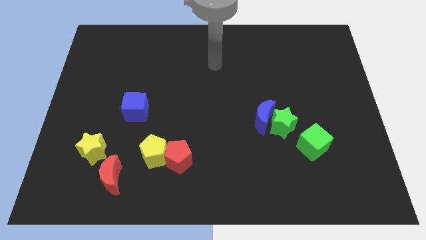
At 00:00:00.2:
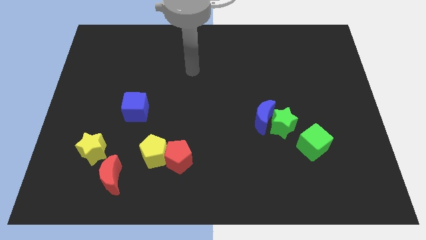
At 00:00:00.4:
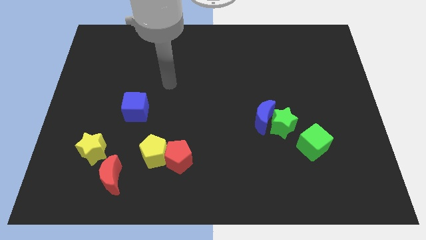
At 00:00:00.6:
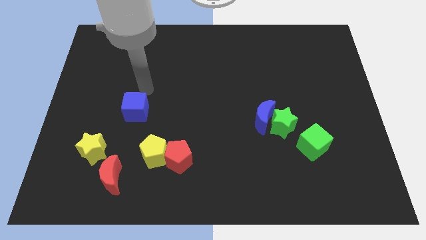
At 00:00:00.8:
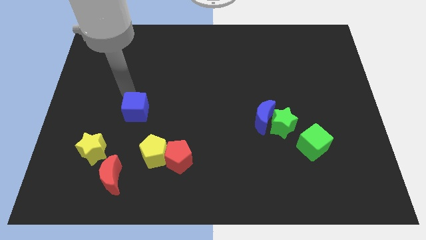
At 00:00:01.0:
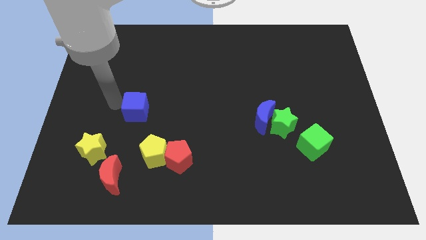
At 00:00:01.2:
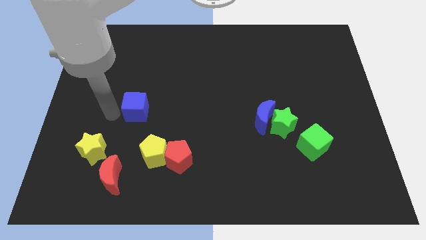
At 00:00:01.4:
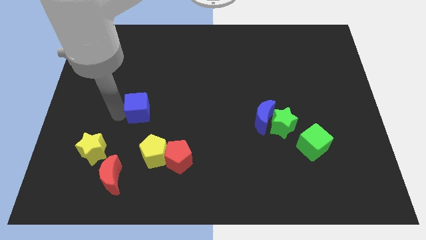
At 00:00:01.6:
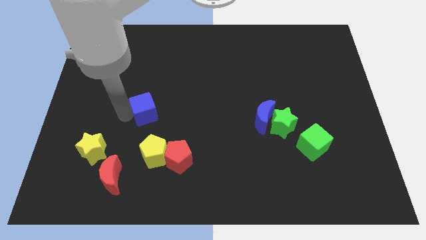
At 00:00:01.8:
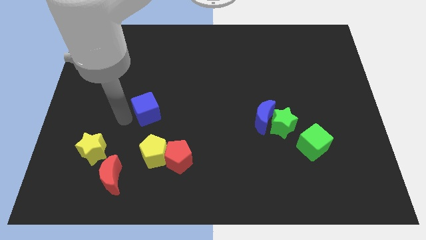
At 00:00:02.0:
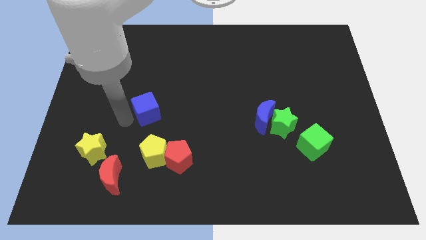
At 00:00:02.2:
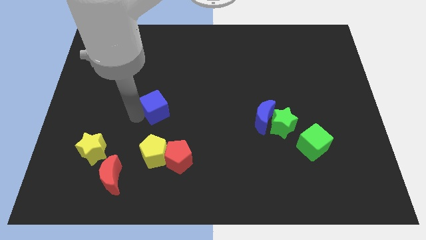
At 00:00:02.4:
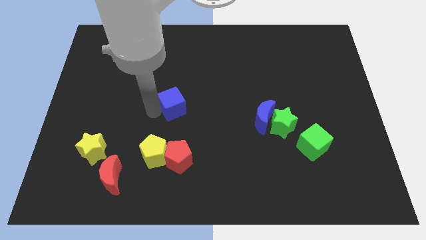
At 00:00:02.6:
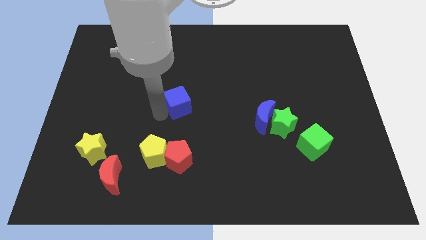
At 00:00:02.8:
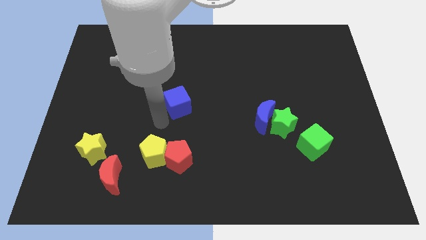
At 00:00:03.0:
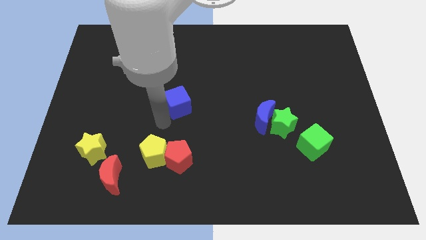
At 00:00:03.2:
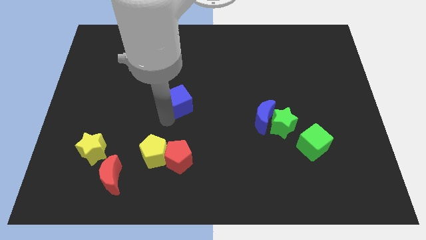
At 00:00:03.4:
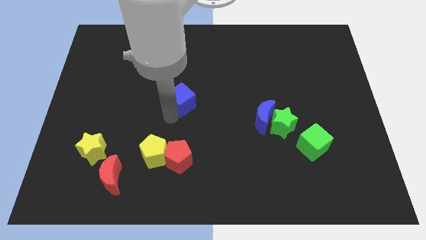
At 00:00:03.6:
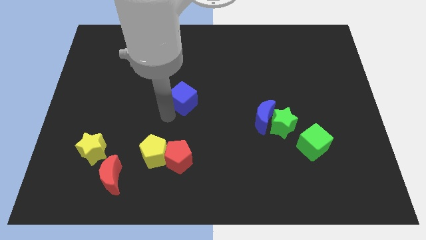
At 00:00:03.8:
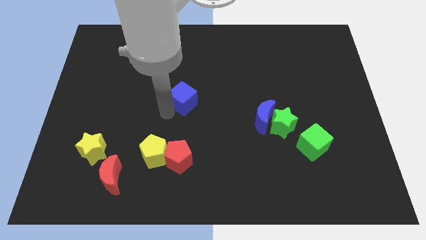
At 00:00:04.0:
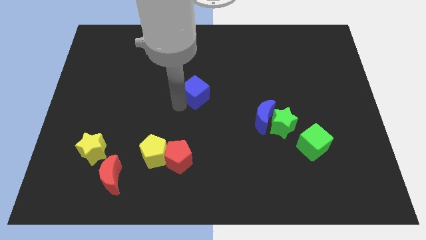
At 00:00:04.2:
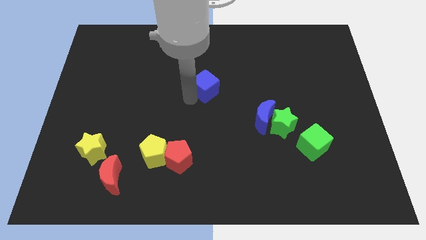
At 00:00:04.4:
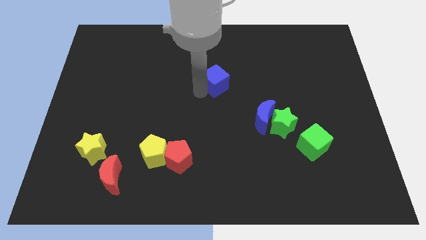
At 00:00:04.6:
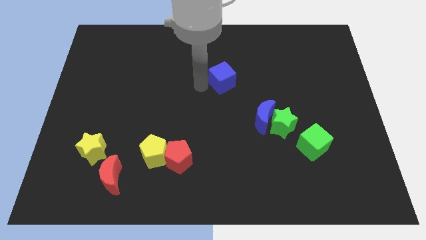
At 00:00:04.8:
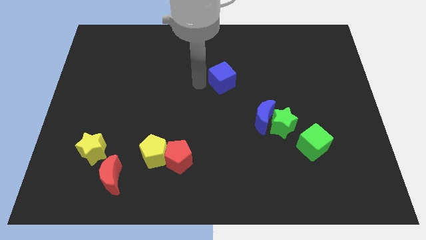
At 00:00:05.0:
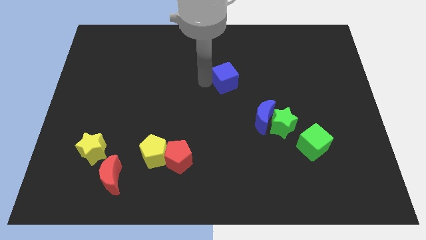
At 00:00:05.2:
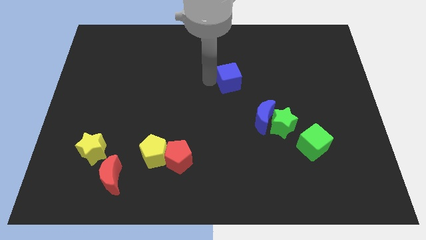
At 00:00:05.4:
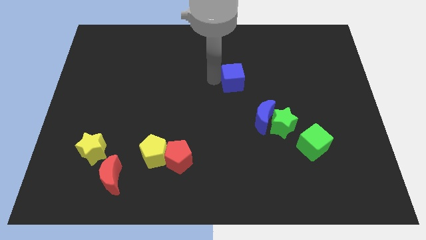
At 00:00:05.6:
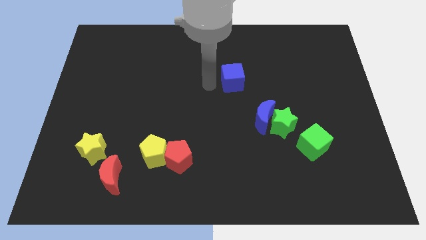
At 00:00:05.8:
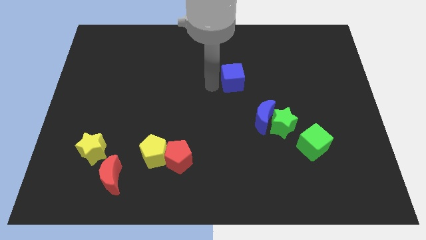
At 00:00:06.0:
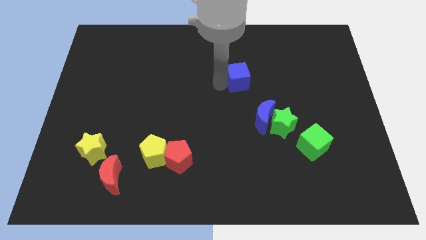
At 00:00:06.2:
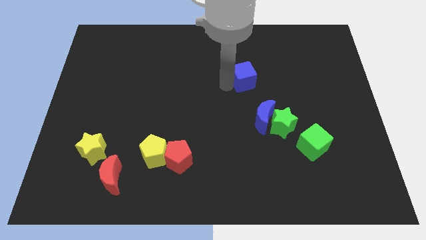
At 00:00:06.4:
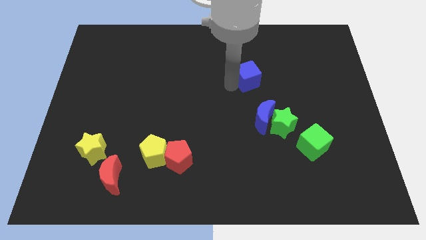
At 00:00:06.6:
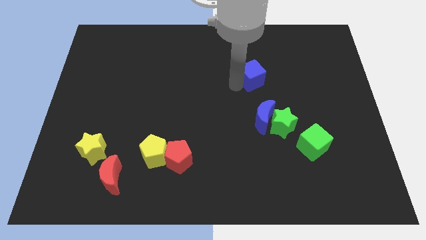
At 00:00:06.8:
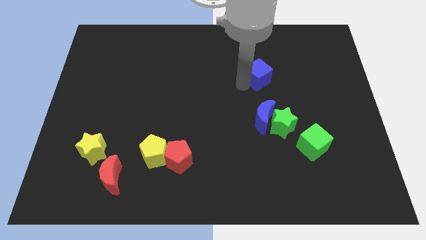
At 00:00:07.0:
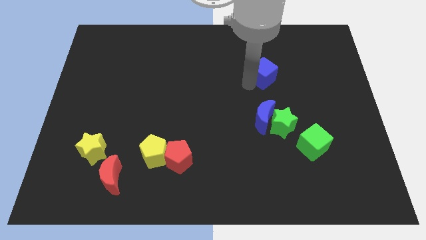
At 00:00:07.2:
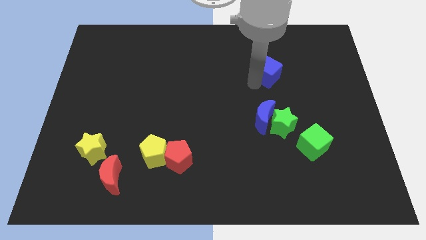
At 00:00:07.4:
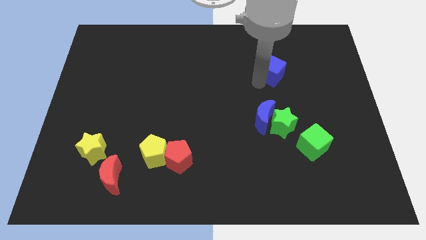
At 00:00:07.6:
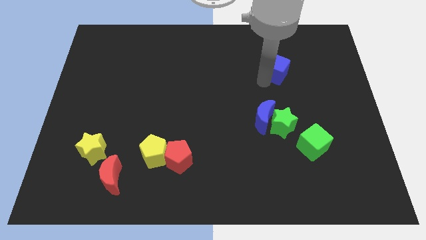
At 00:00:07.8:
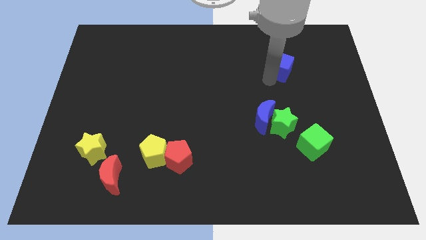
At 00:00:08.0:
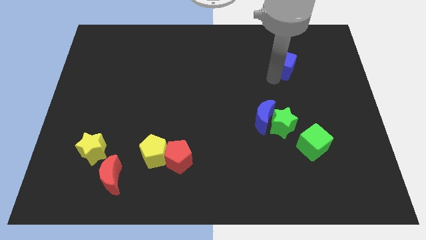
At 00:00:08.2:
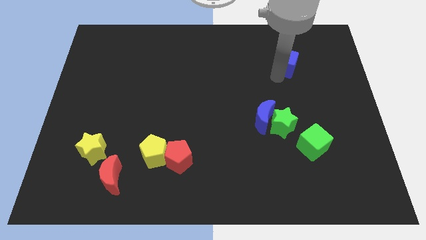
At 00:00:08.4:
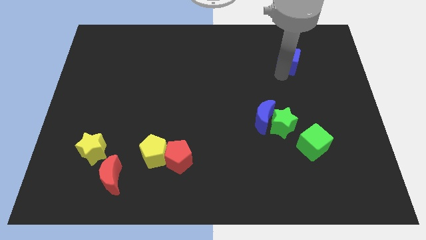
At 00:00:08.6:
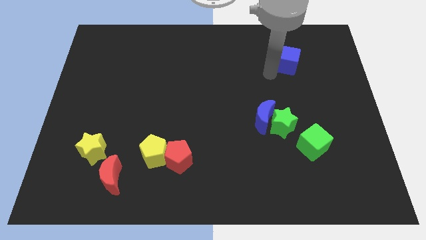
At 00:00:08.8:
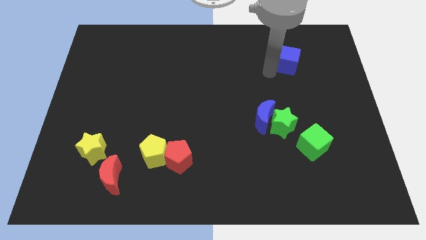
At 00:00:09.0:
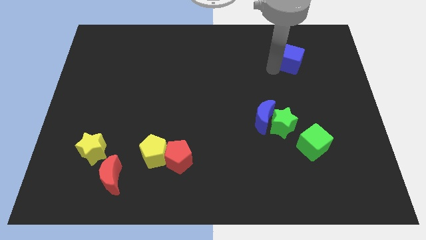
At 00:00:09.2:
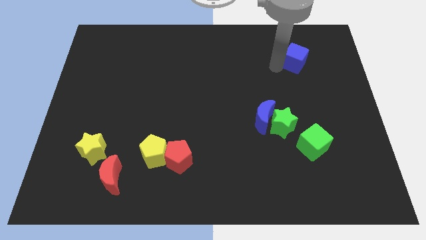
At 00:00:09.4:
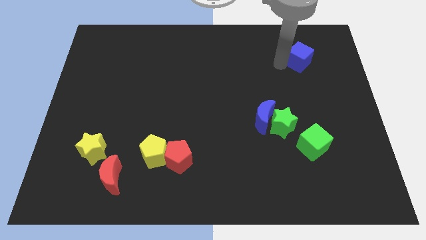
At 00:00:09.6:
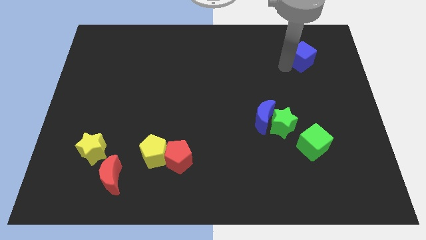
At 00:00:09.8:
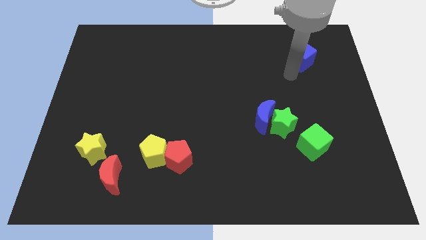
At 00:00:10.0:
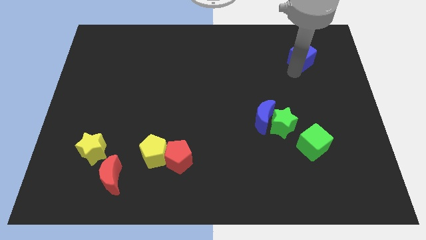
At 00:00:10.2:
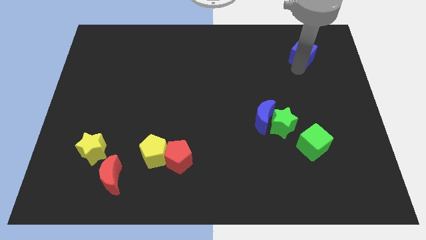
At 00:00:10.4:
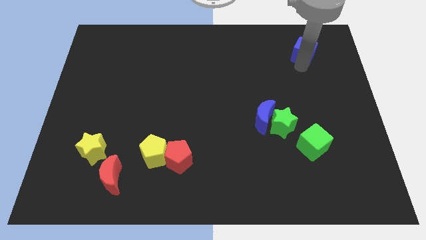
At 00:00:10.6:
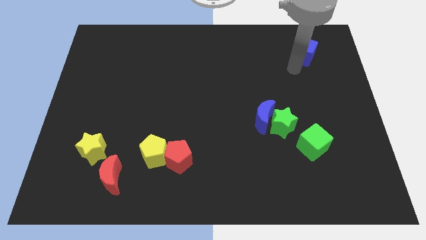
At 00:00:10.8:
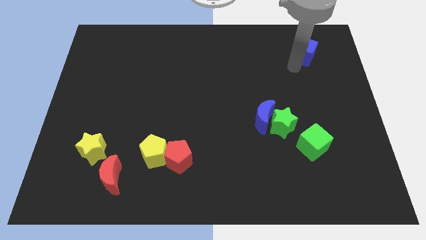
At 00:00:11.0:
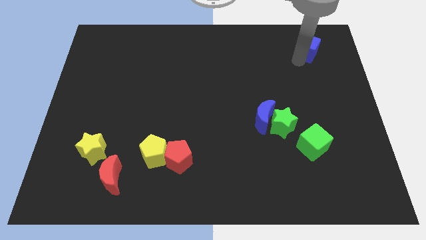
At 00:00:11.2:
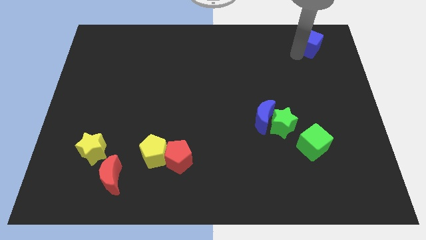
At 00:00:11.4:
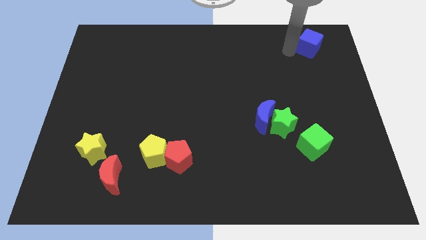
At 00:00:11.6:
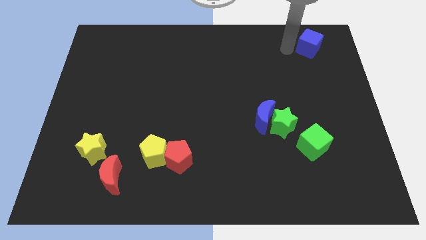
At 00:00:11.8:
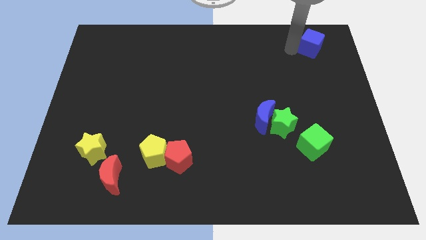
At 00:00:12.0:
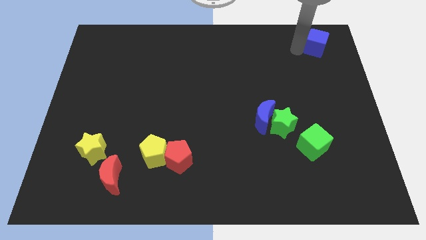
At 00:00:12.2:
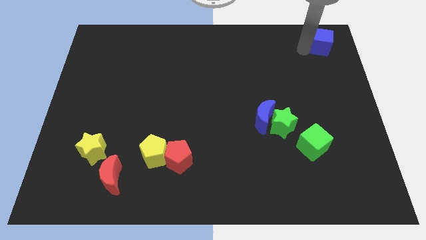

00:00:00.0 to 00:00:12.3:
slide the blue cube to the upper right corner

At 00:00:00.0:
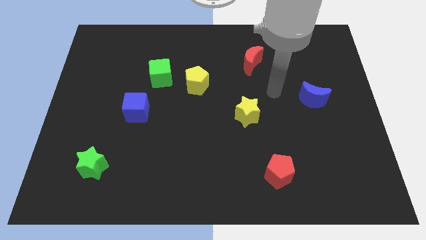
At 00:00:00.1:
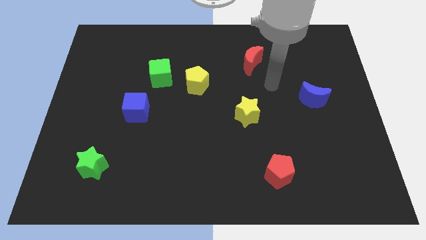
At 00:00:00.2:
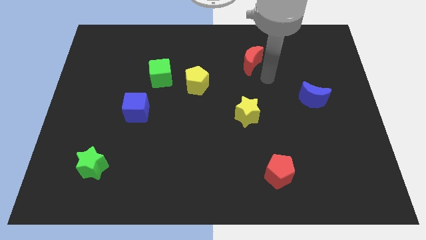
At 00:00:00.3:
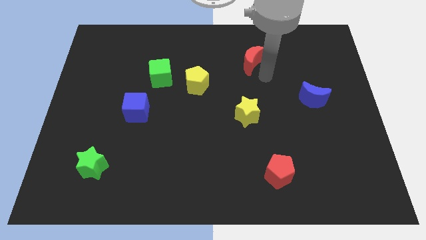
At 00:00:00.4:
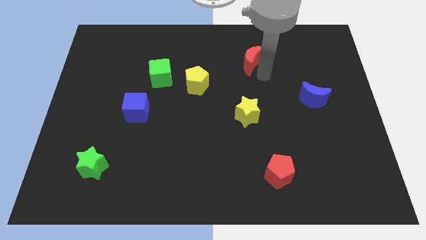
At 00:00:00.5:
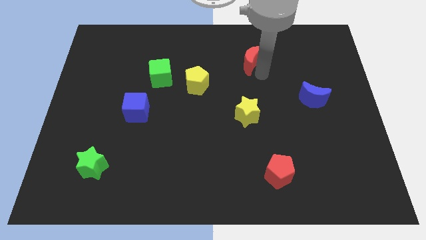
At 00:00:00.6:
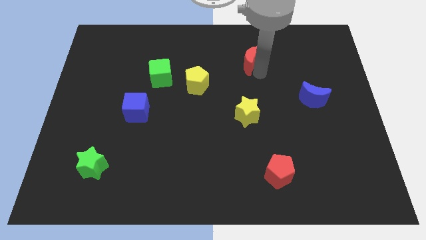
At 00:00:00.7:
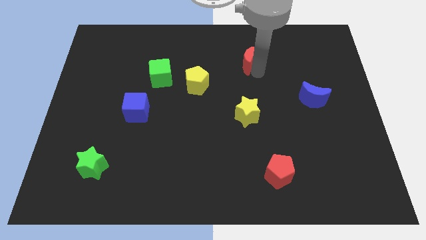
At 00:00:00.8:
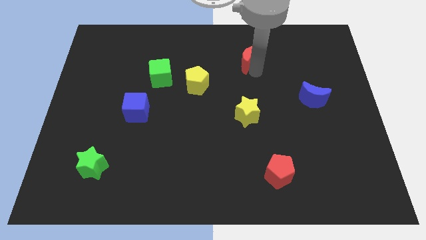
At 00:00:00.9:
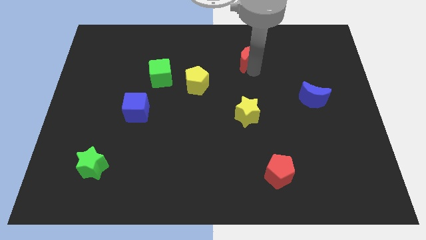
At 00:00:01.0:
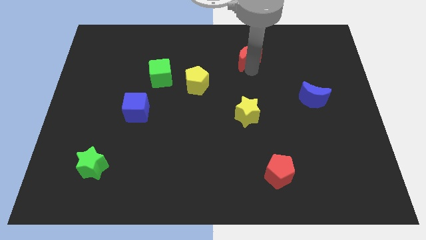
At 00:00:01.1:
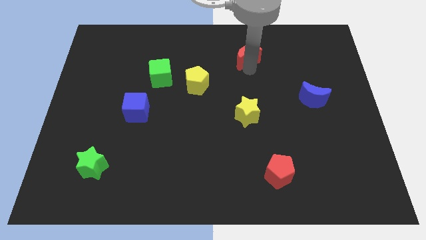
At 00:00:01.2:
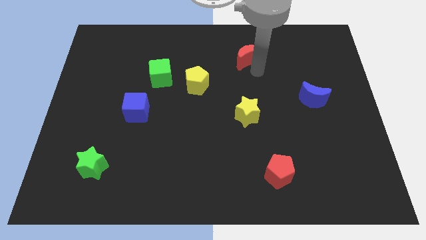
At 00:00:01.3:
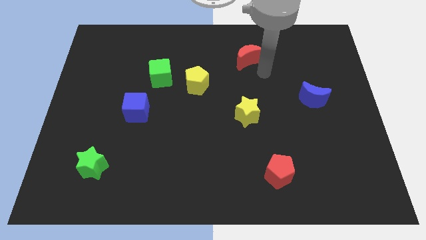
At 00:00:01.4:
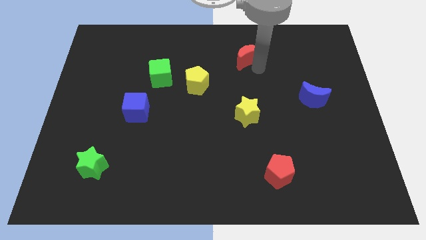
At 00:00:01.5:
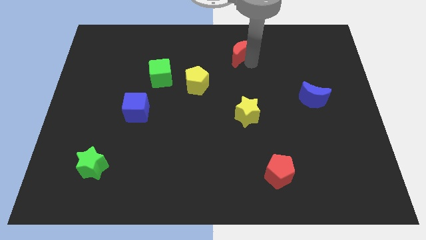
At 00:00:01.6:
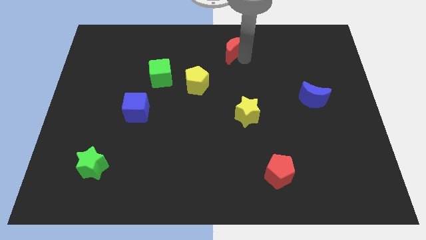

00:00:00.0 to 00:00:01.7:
move the red moon to the towards your base

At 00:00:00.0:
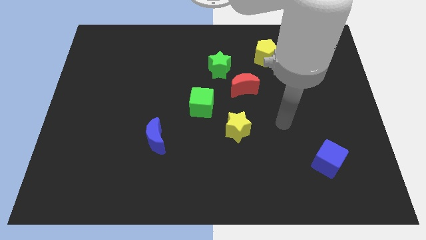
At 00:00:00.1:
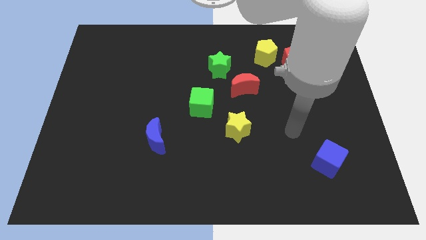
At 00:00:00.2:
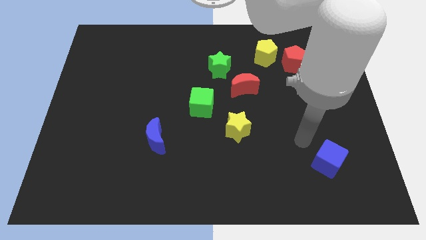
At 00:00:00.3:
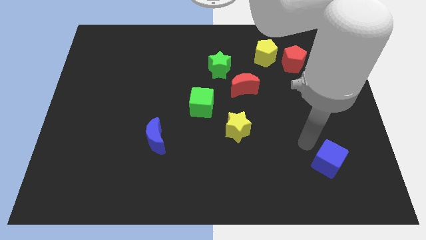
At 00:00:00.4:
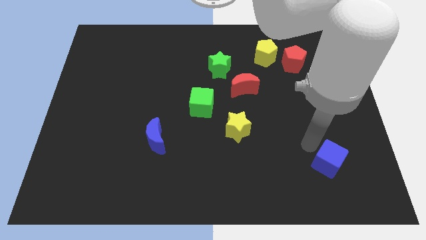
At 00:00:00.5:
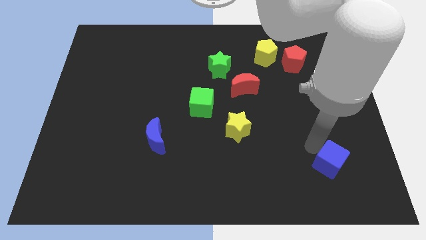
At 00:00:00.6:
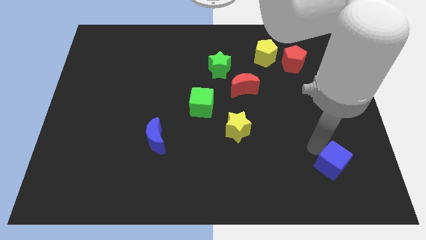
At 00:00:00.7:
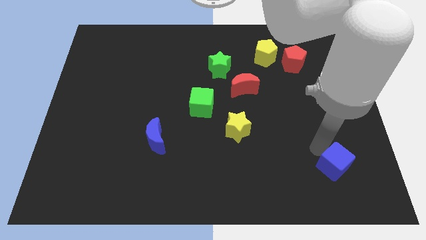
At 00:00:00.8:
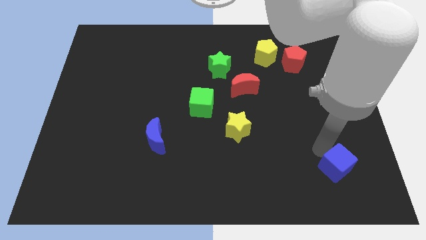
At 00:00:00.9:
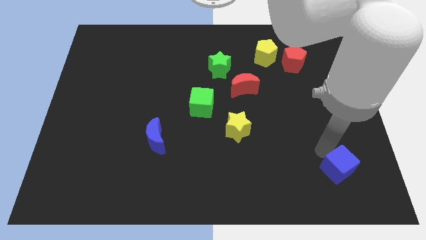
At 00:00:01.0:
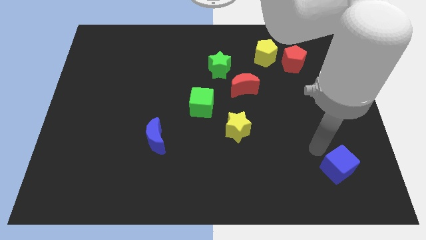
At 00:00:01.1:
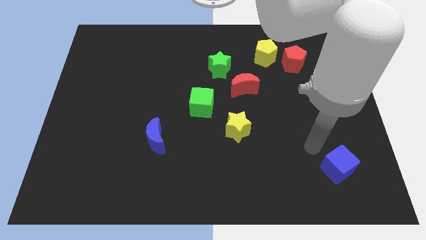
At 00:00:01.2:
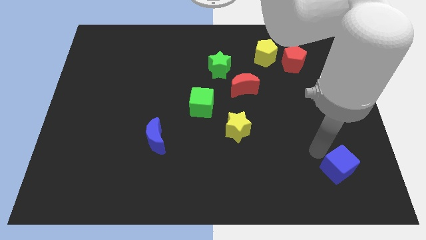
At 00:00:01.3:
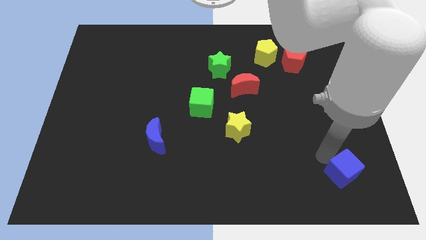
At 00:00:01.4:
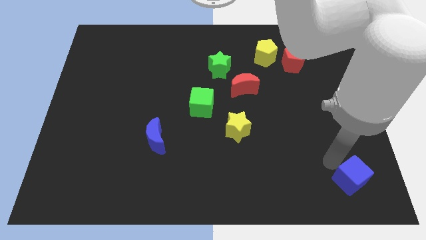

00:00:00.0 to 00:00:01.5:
push the blue cube to the bottom right
